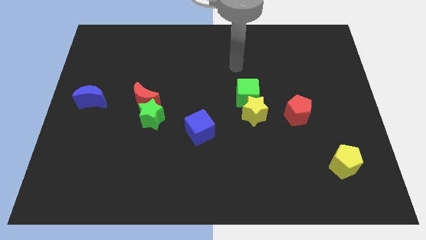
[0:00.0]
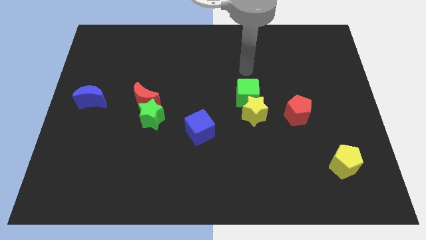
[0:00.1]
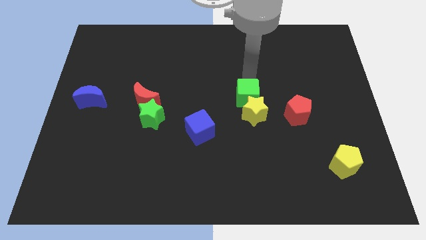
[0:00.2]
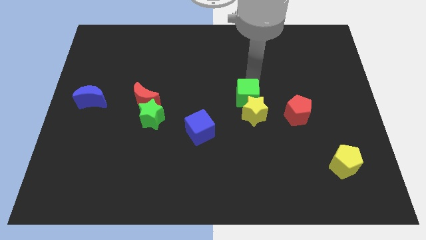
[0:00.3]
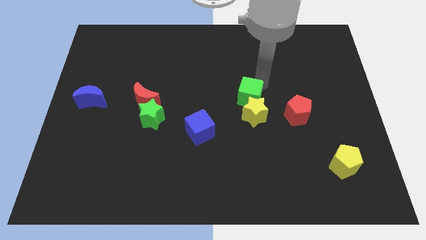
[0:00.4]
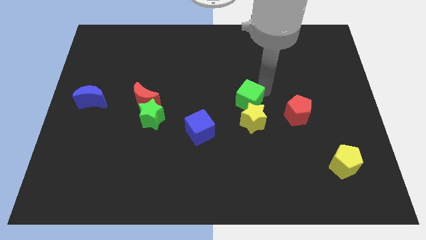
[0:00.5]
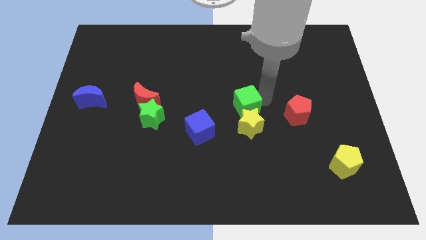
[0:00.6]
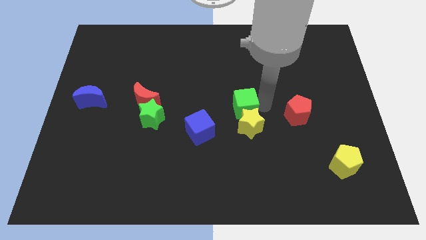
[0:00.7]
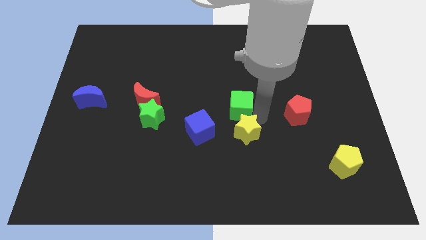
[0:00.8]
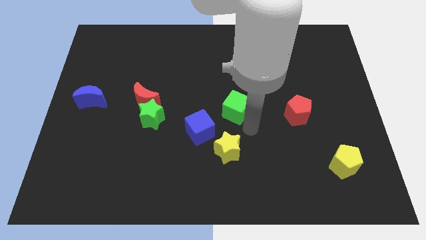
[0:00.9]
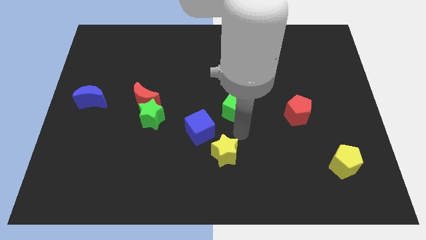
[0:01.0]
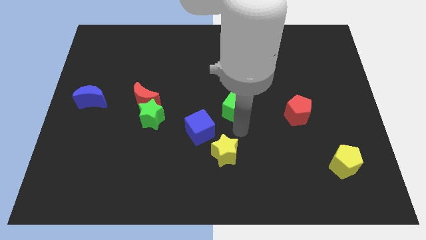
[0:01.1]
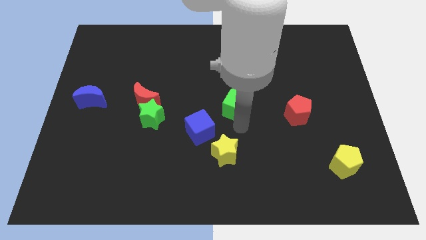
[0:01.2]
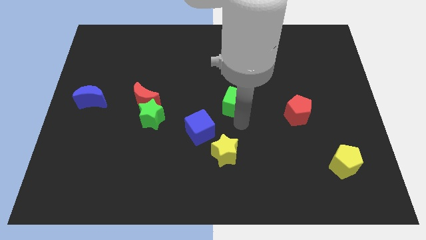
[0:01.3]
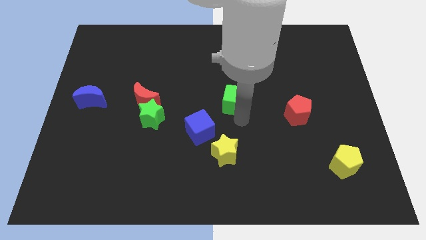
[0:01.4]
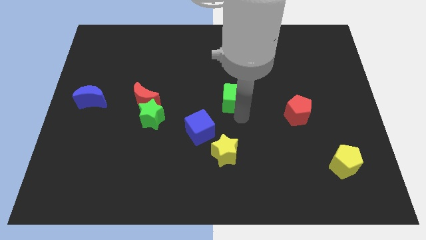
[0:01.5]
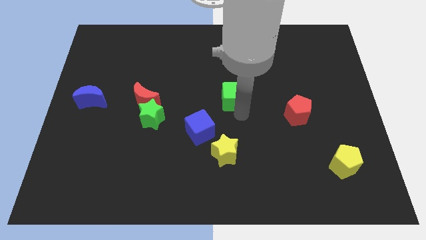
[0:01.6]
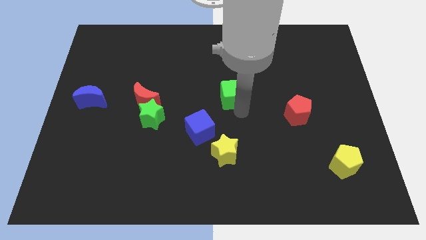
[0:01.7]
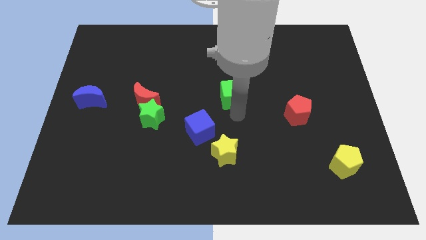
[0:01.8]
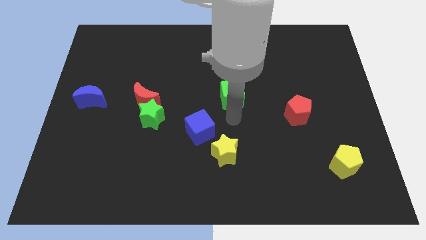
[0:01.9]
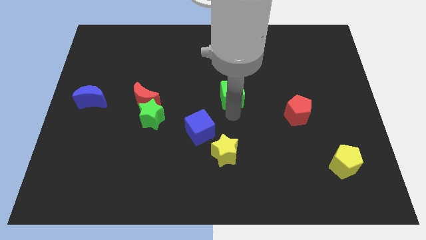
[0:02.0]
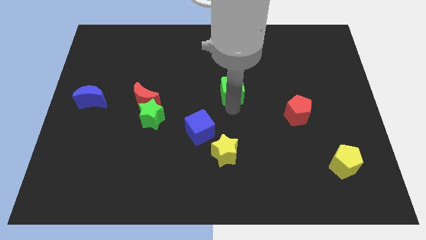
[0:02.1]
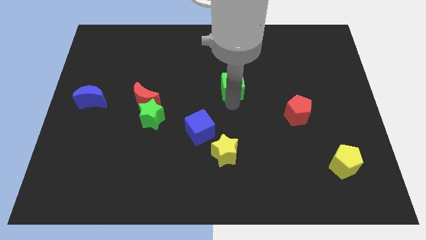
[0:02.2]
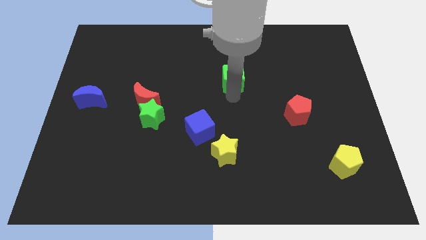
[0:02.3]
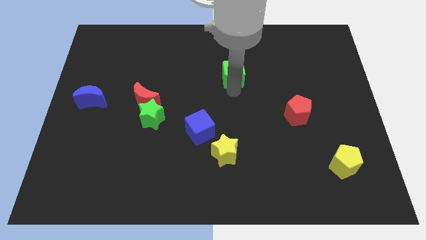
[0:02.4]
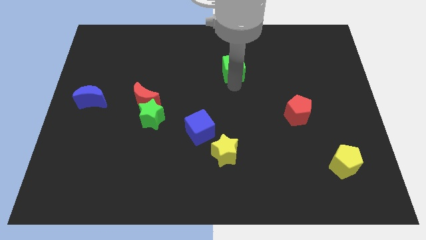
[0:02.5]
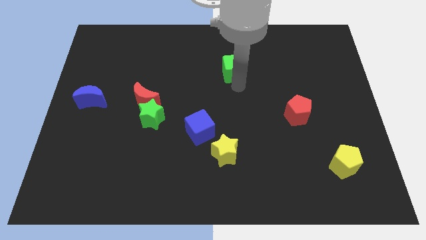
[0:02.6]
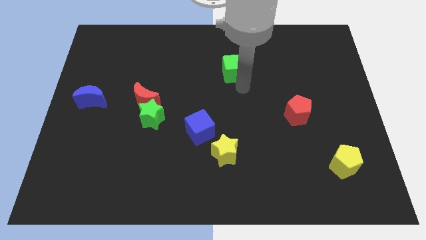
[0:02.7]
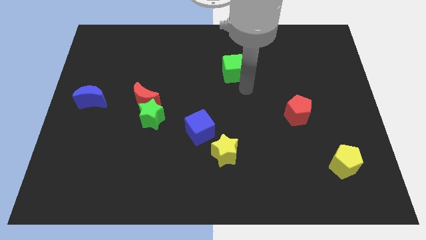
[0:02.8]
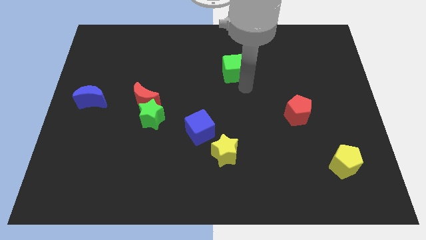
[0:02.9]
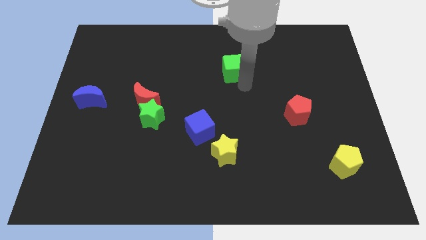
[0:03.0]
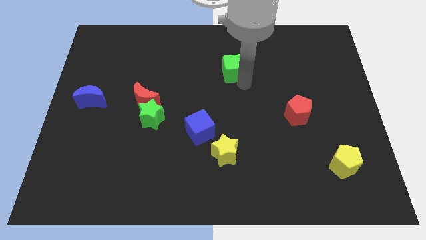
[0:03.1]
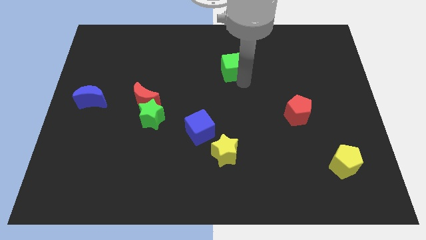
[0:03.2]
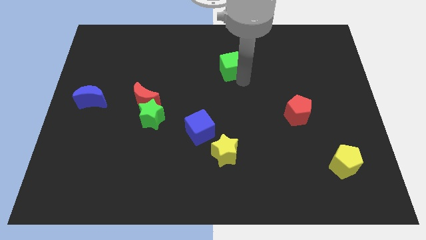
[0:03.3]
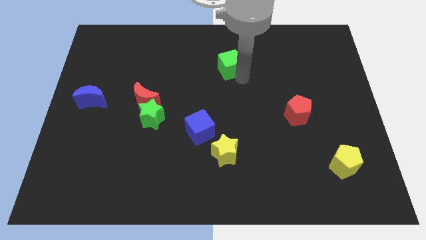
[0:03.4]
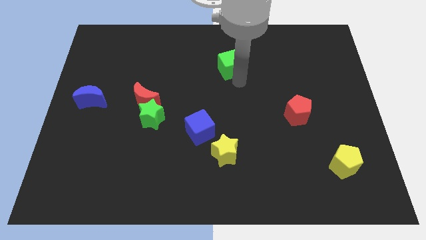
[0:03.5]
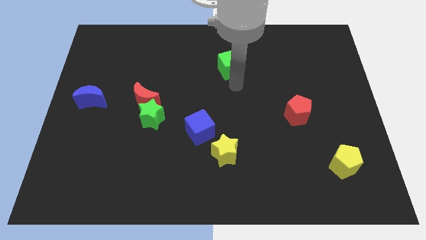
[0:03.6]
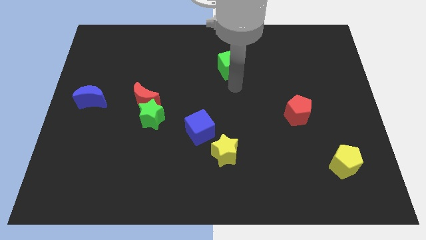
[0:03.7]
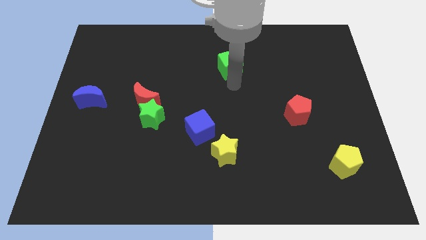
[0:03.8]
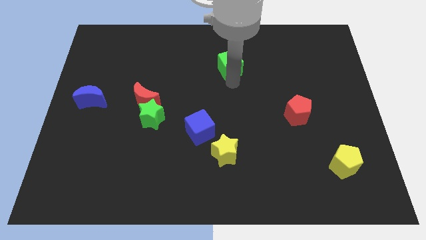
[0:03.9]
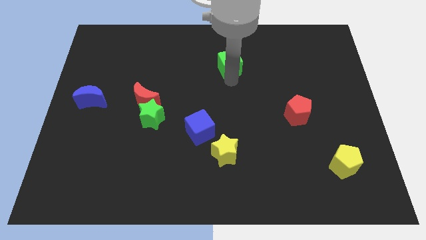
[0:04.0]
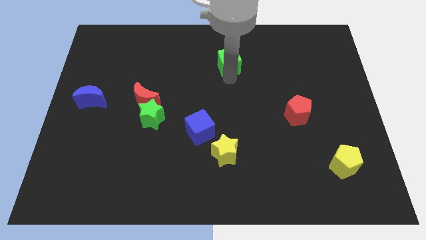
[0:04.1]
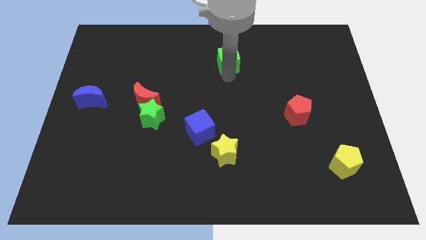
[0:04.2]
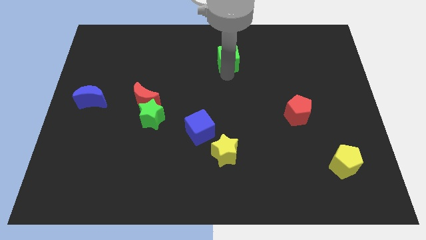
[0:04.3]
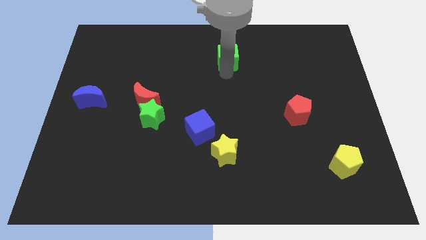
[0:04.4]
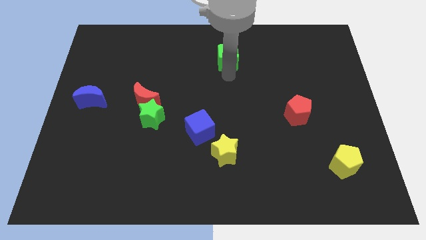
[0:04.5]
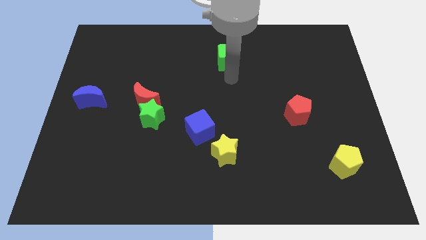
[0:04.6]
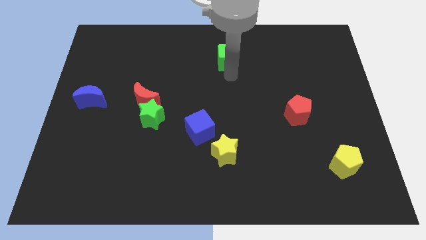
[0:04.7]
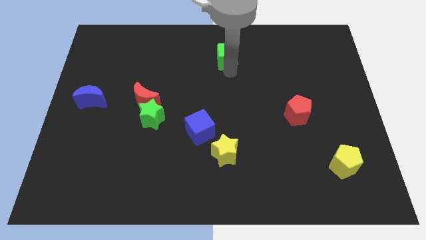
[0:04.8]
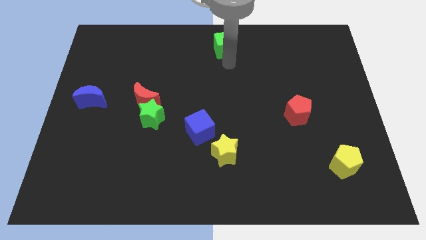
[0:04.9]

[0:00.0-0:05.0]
slide the green cube to the top side

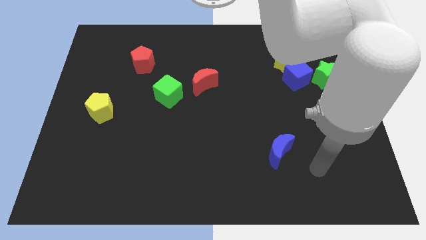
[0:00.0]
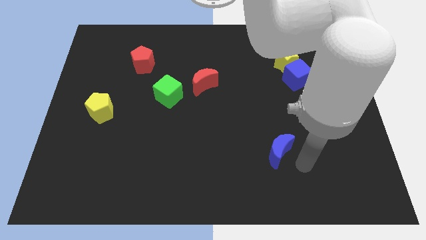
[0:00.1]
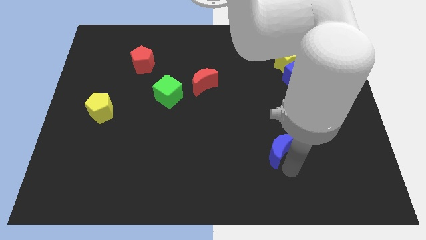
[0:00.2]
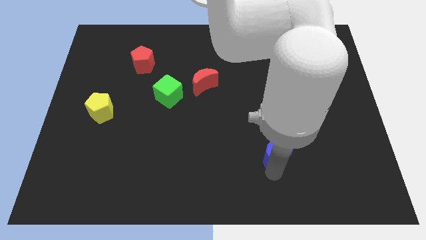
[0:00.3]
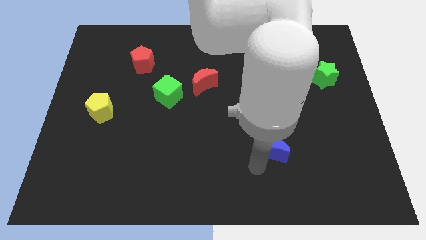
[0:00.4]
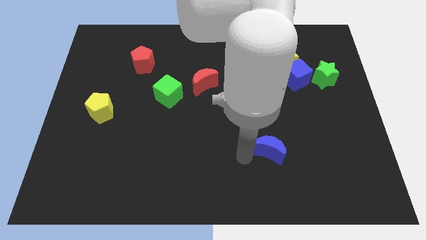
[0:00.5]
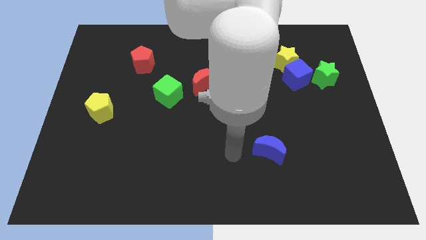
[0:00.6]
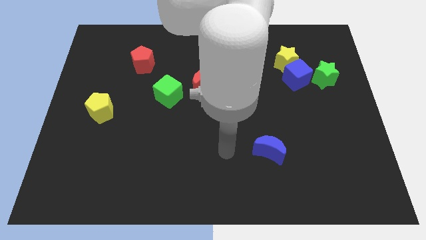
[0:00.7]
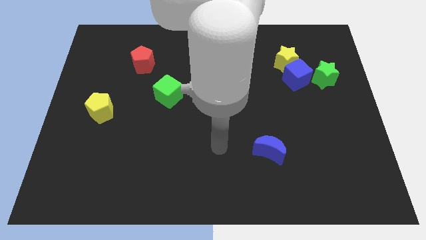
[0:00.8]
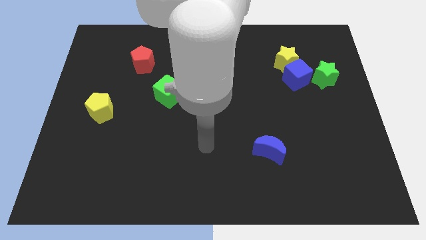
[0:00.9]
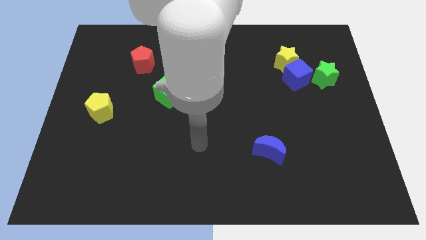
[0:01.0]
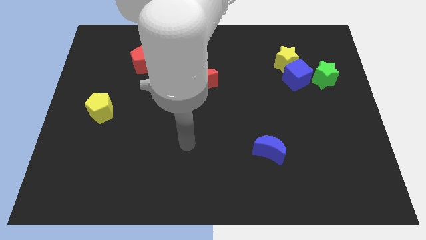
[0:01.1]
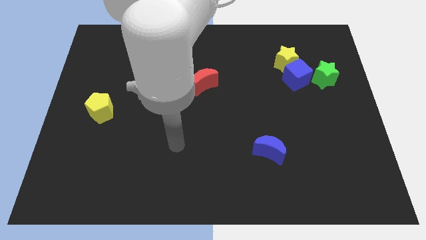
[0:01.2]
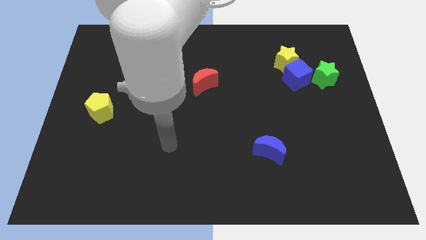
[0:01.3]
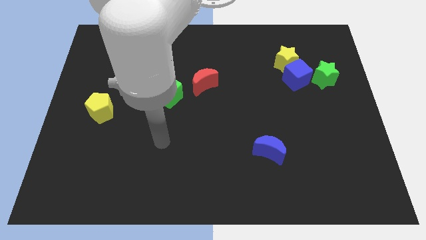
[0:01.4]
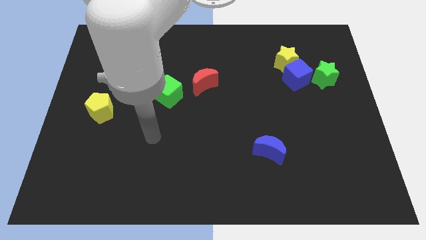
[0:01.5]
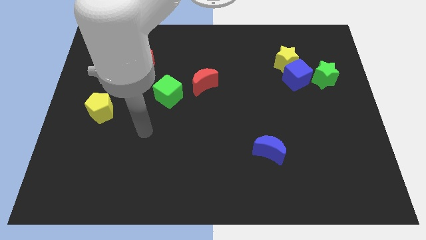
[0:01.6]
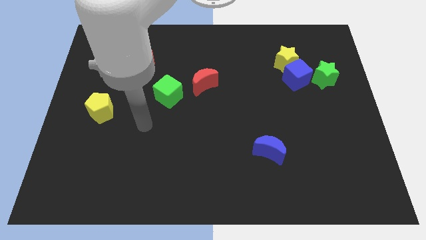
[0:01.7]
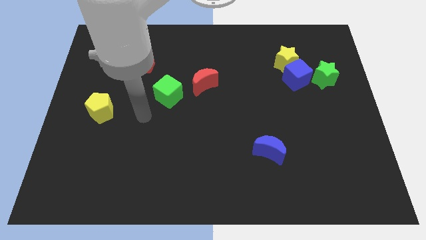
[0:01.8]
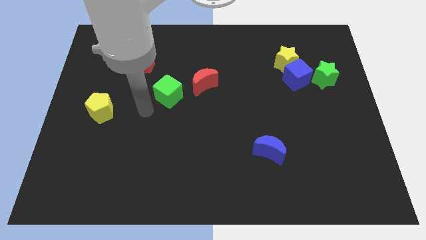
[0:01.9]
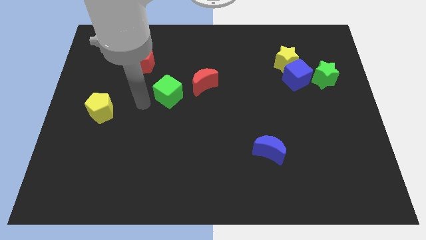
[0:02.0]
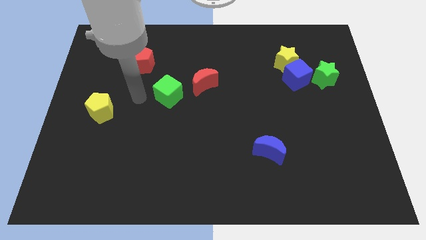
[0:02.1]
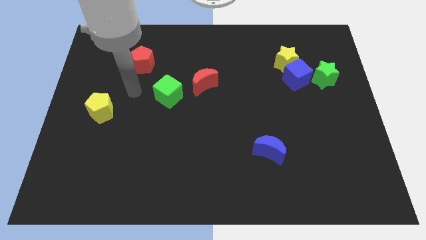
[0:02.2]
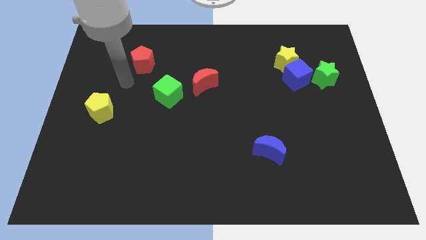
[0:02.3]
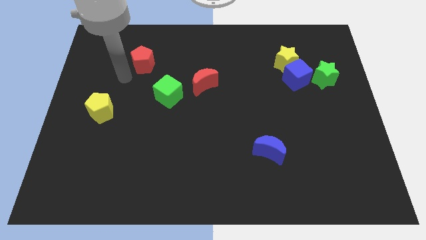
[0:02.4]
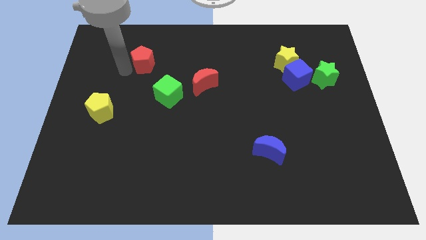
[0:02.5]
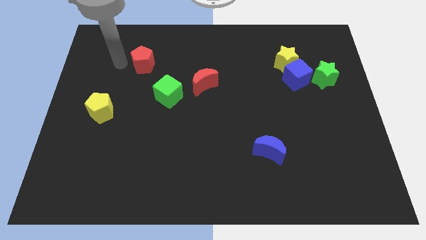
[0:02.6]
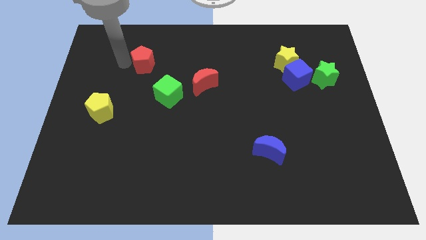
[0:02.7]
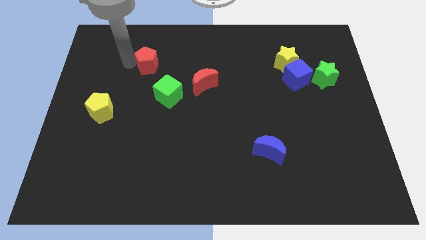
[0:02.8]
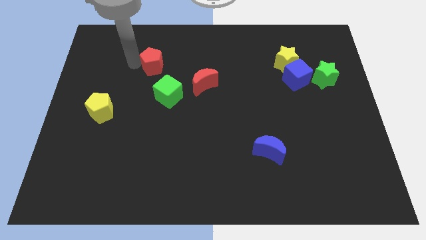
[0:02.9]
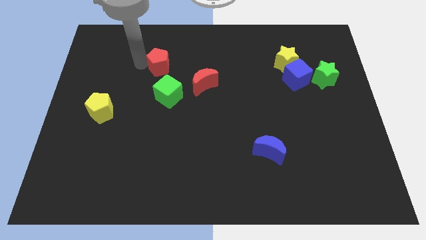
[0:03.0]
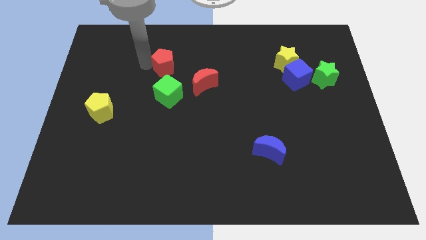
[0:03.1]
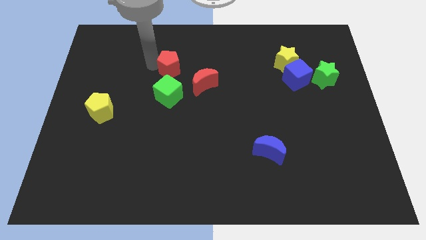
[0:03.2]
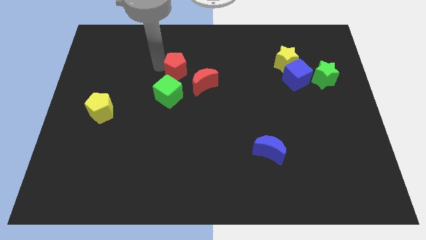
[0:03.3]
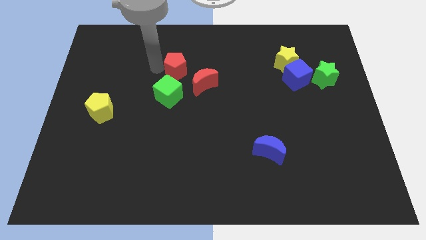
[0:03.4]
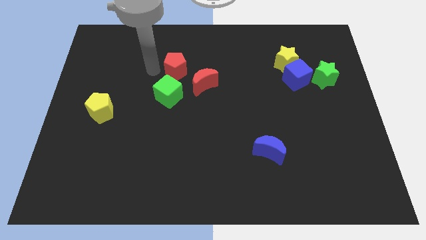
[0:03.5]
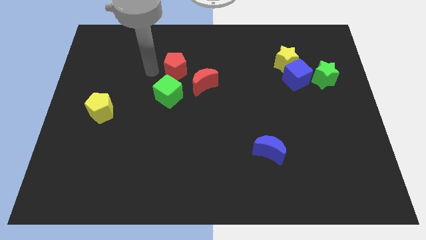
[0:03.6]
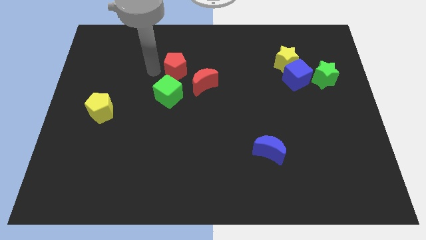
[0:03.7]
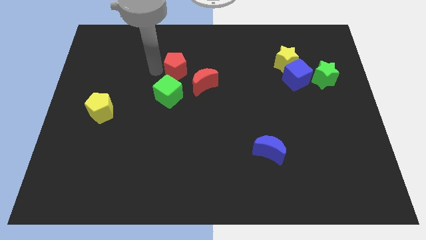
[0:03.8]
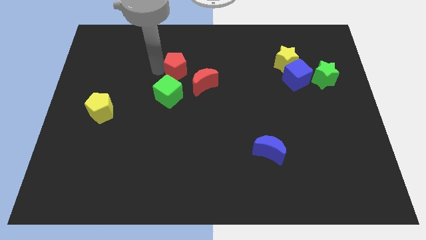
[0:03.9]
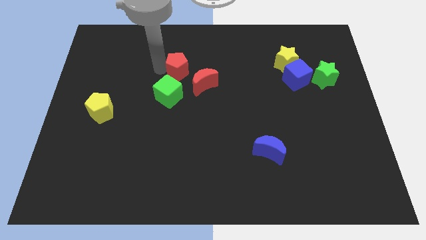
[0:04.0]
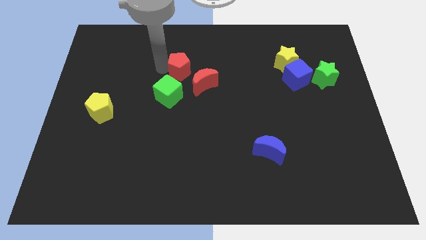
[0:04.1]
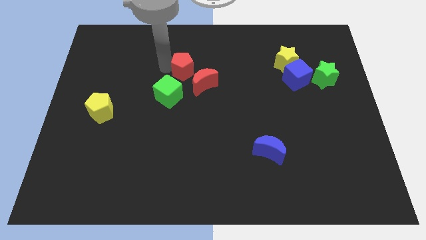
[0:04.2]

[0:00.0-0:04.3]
put the red pentagon to the center
